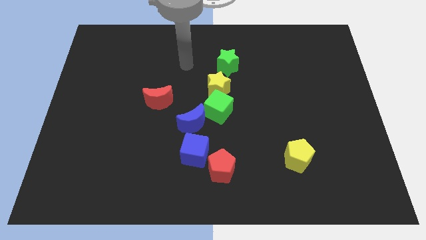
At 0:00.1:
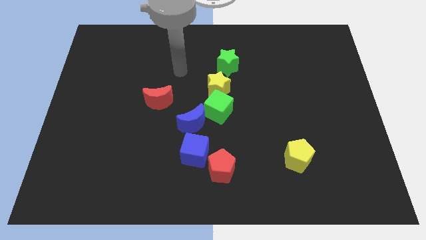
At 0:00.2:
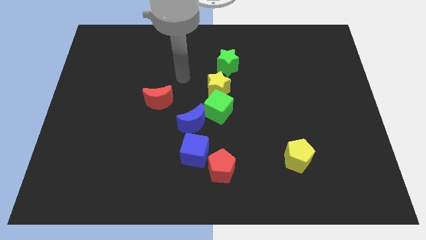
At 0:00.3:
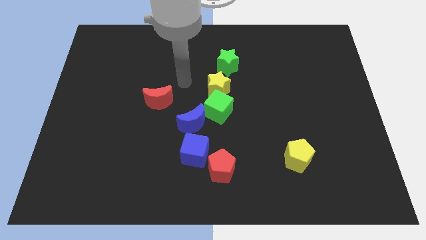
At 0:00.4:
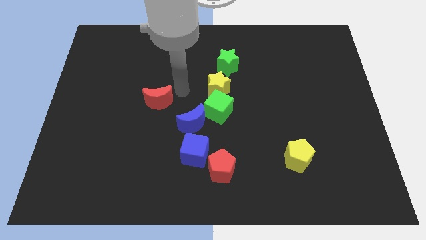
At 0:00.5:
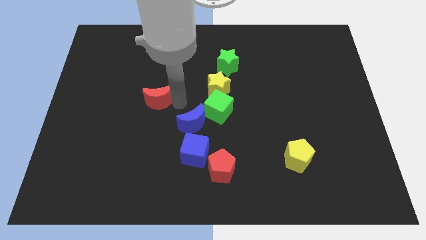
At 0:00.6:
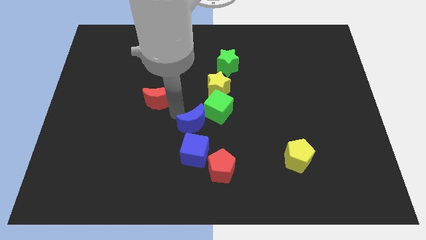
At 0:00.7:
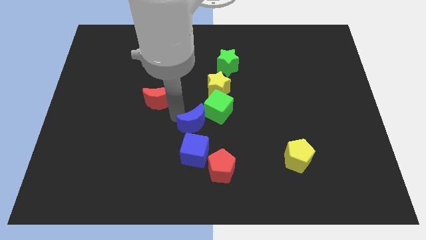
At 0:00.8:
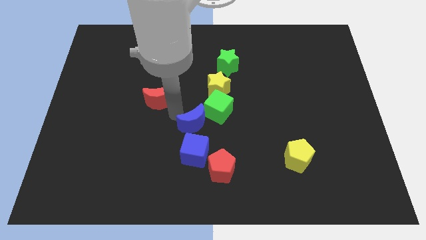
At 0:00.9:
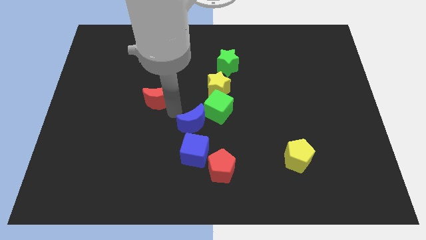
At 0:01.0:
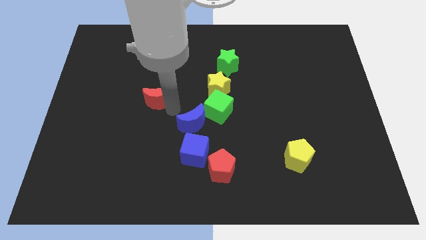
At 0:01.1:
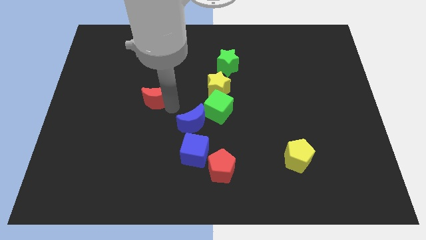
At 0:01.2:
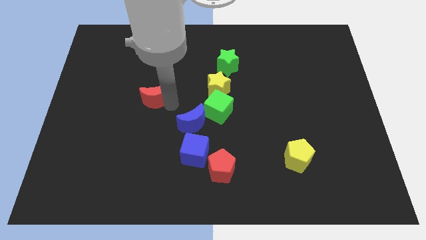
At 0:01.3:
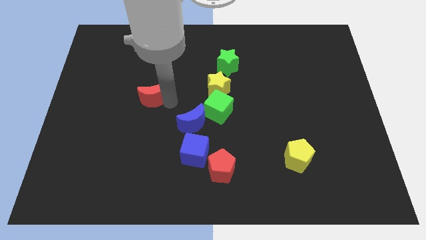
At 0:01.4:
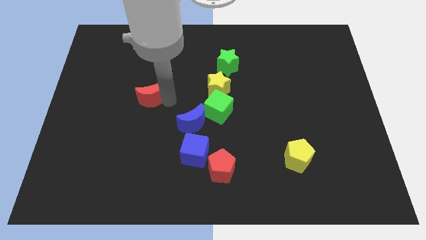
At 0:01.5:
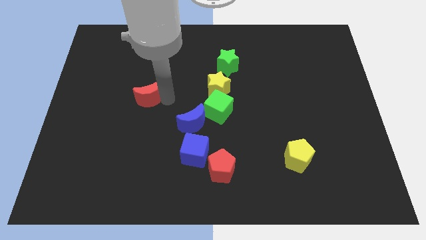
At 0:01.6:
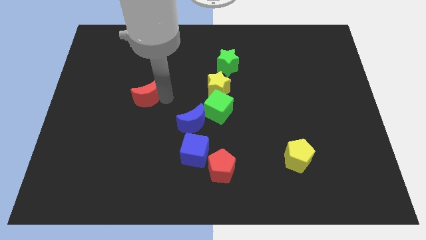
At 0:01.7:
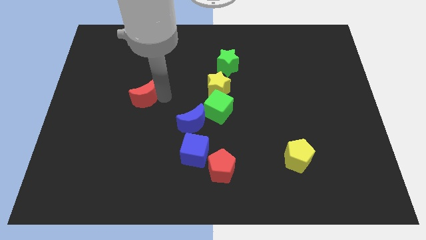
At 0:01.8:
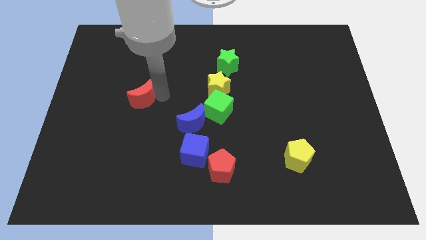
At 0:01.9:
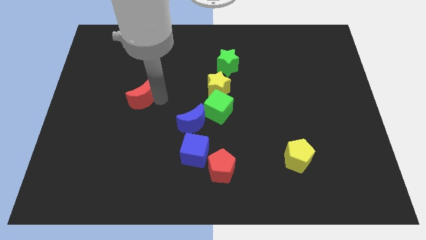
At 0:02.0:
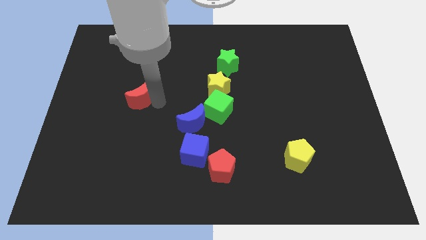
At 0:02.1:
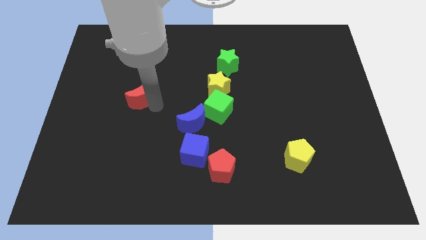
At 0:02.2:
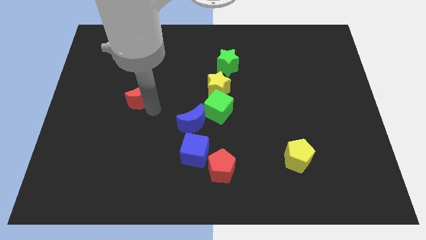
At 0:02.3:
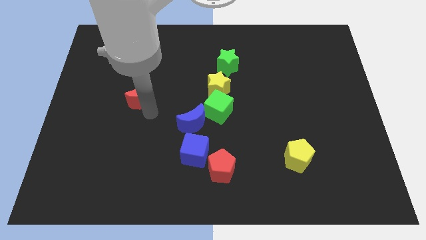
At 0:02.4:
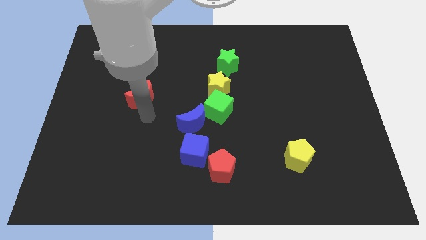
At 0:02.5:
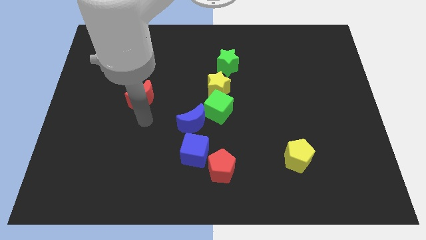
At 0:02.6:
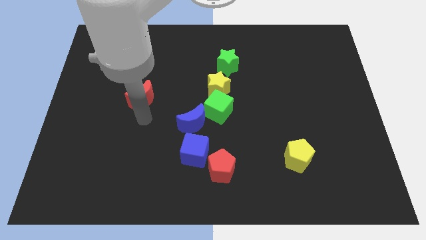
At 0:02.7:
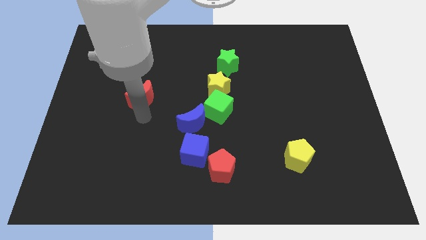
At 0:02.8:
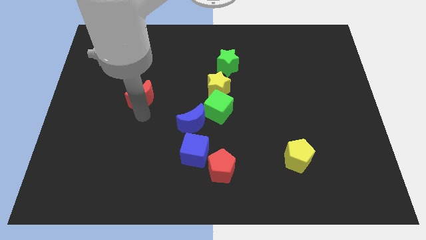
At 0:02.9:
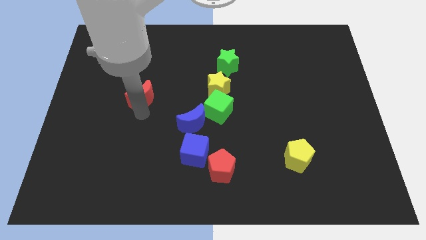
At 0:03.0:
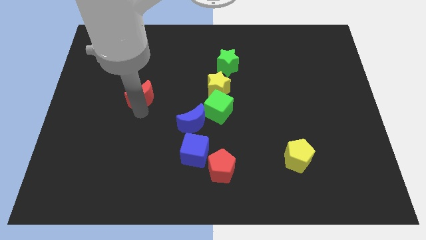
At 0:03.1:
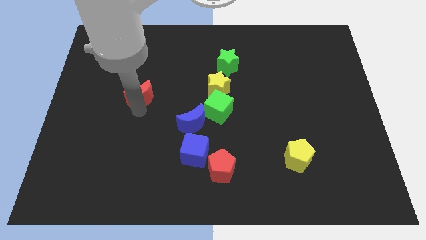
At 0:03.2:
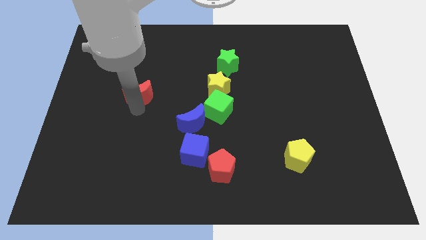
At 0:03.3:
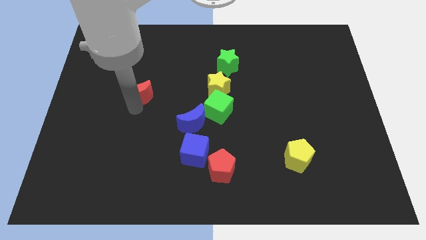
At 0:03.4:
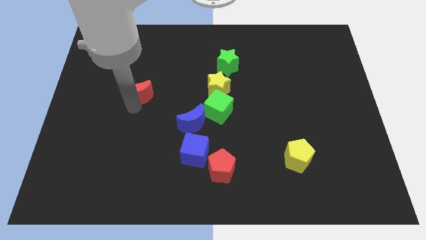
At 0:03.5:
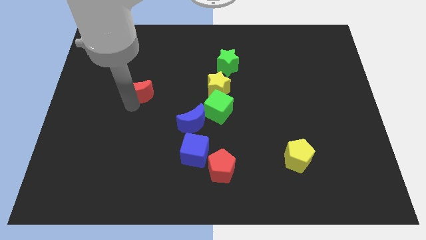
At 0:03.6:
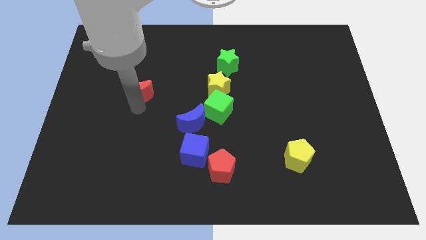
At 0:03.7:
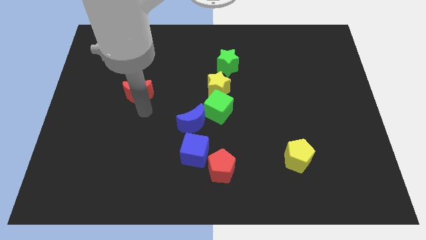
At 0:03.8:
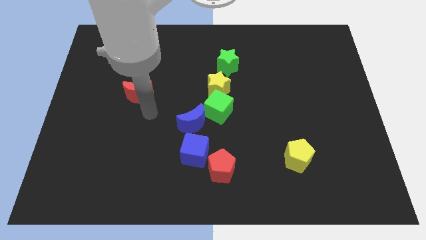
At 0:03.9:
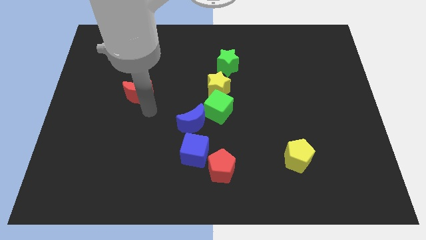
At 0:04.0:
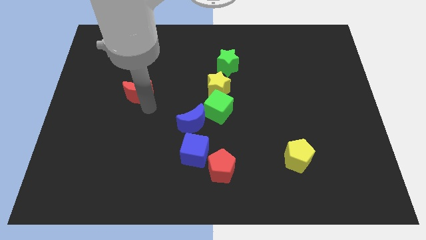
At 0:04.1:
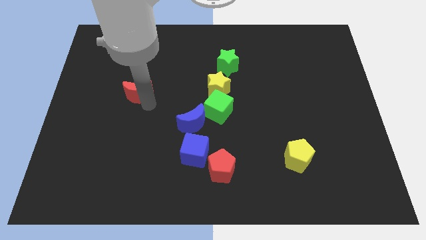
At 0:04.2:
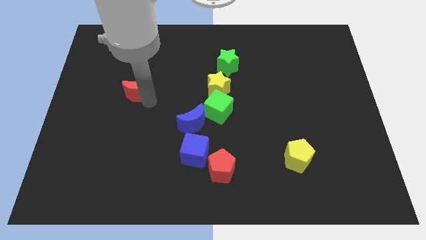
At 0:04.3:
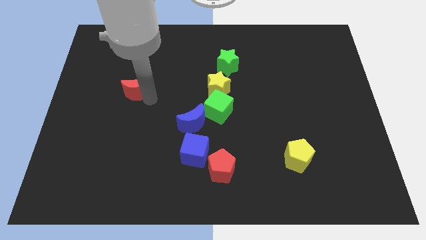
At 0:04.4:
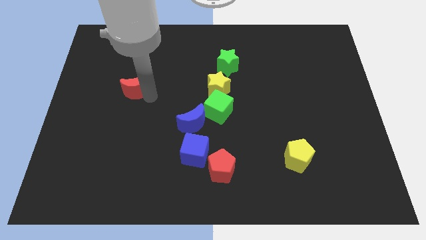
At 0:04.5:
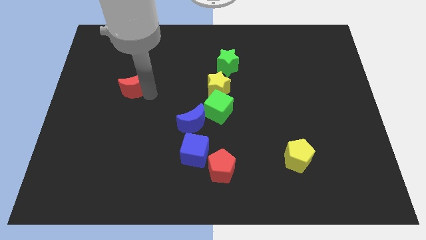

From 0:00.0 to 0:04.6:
push the red moon up and left diagonally a bit

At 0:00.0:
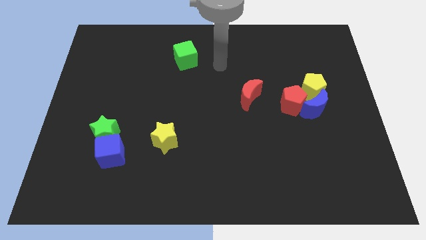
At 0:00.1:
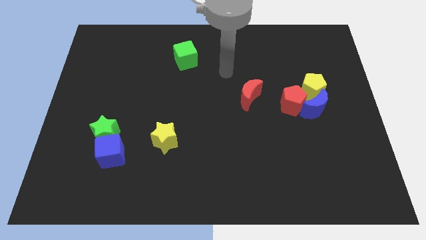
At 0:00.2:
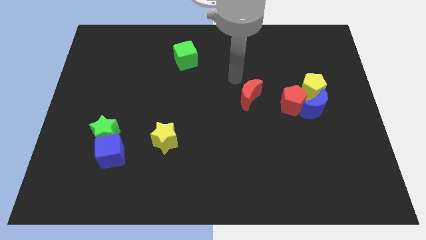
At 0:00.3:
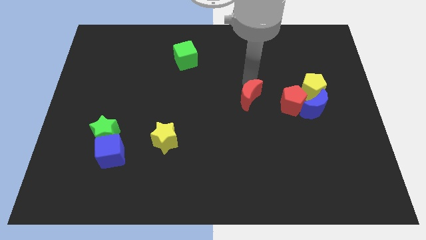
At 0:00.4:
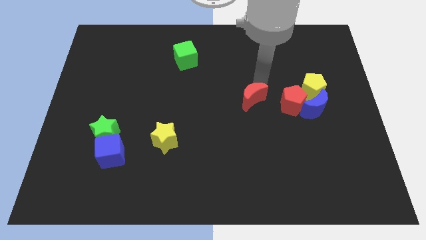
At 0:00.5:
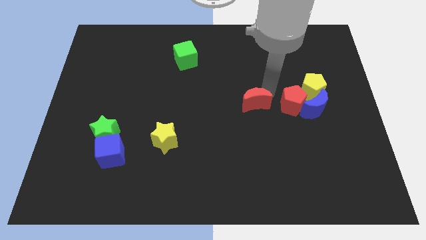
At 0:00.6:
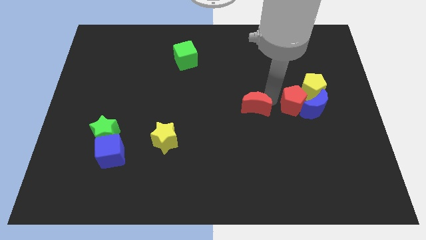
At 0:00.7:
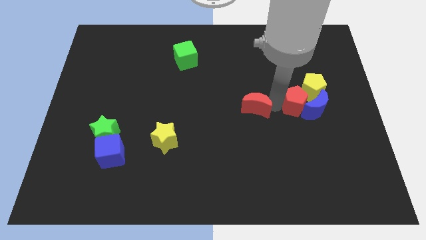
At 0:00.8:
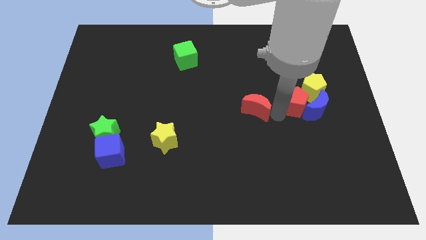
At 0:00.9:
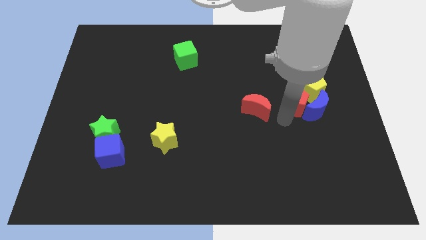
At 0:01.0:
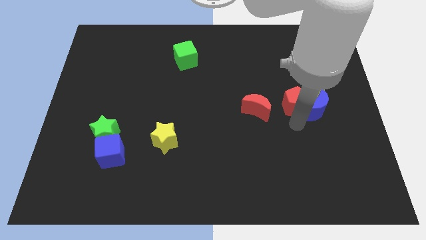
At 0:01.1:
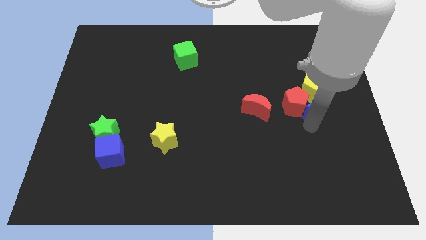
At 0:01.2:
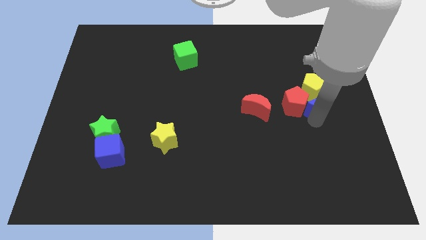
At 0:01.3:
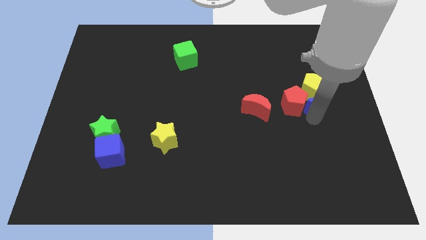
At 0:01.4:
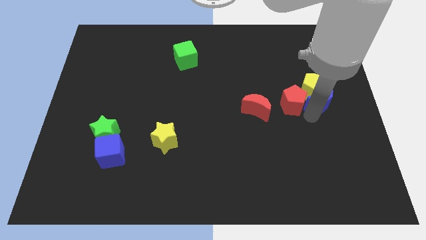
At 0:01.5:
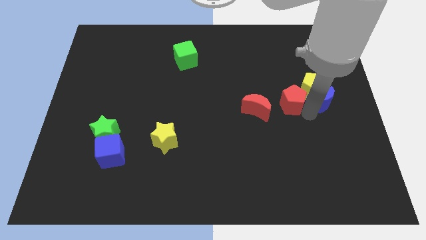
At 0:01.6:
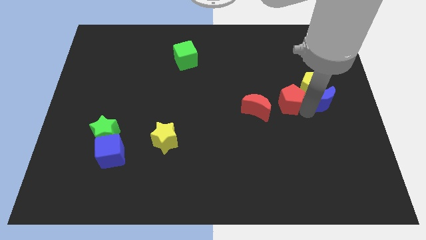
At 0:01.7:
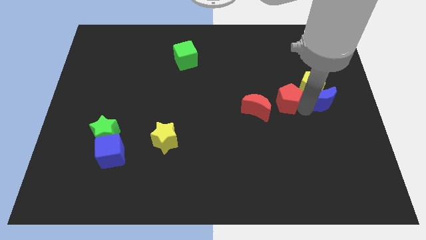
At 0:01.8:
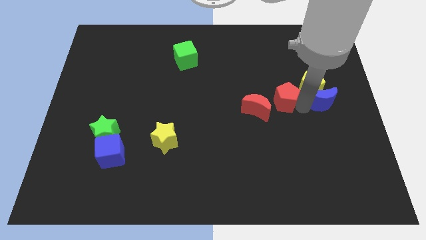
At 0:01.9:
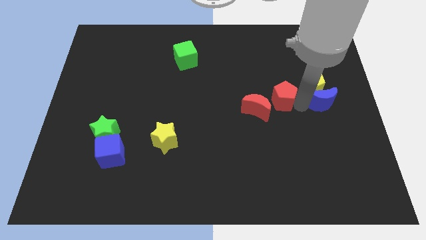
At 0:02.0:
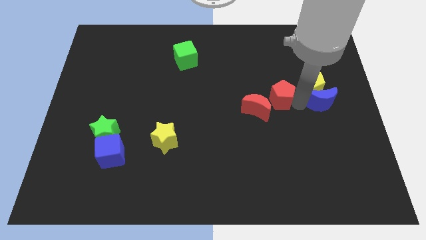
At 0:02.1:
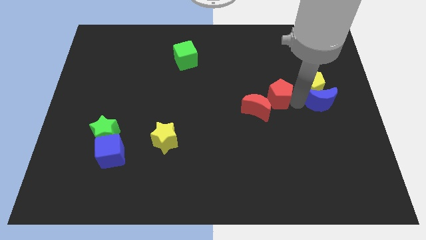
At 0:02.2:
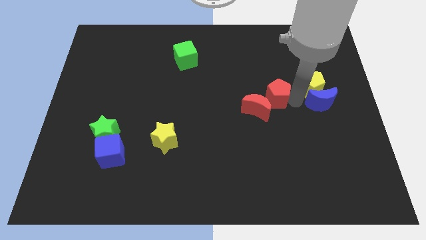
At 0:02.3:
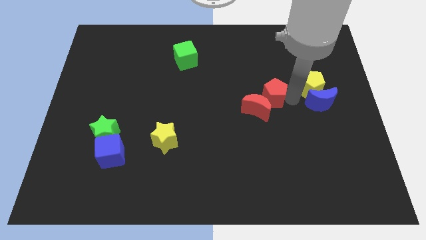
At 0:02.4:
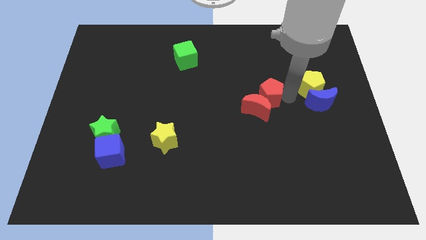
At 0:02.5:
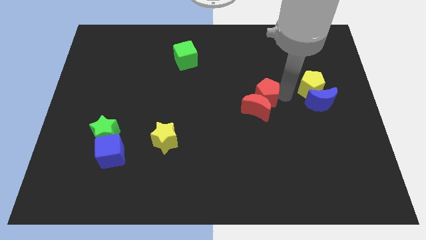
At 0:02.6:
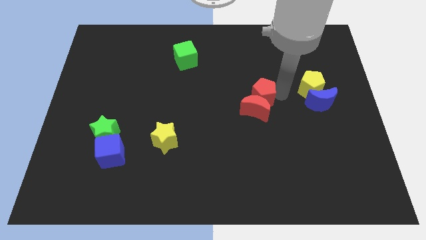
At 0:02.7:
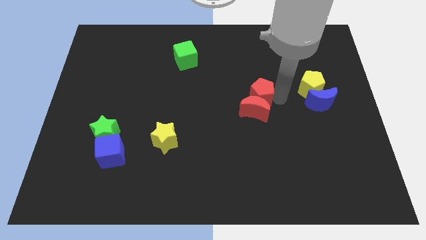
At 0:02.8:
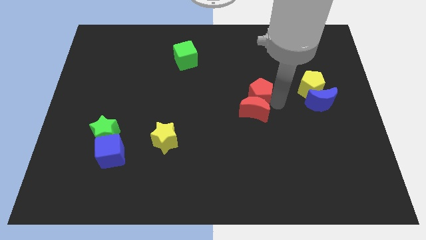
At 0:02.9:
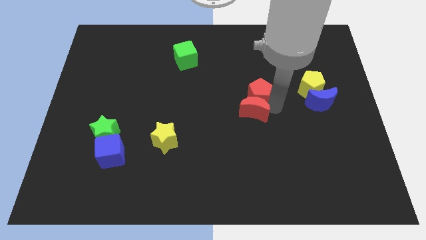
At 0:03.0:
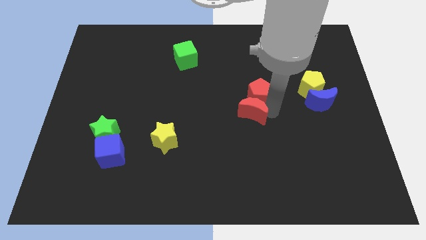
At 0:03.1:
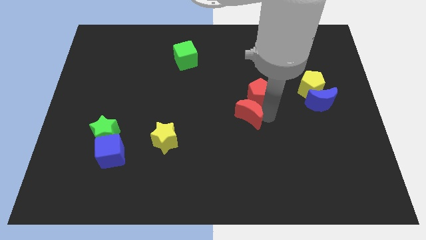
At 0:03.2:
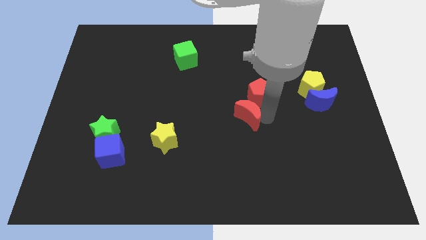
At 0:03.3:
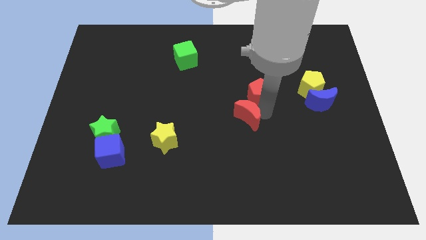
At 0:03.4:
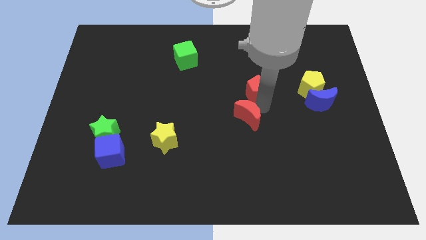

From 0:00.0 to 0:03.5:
slide the red pentagon diagonally upwards and left a little bit
